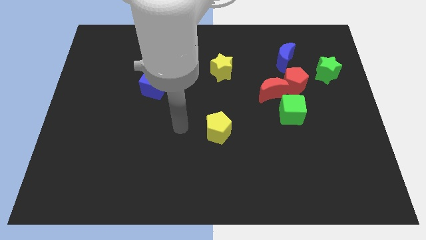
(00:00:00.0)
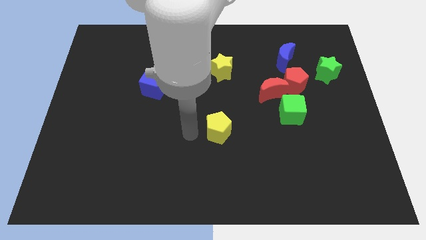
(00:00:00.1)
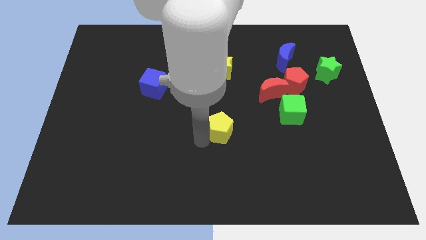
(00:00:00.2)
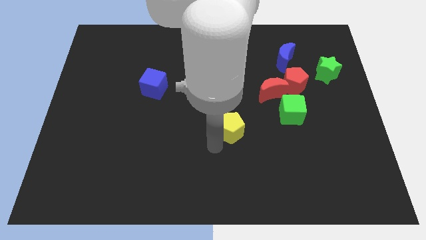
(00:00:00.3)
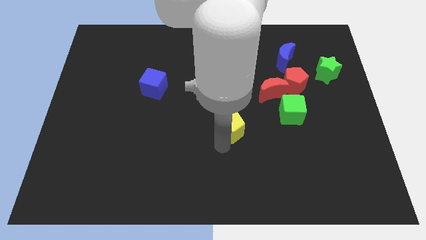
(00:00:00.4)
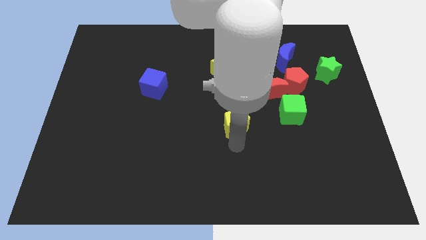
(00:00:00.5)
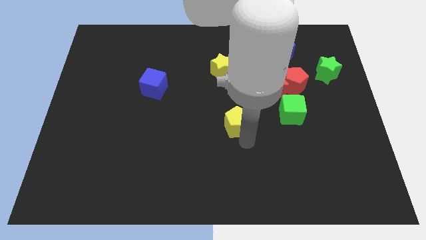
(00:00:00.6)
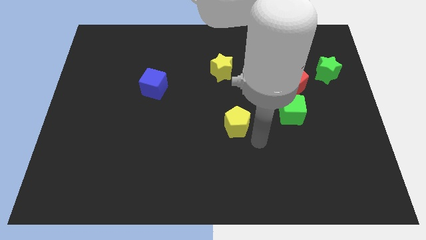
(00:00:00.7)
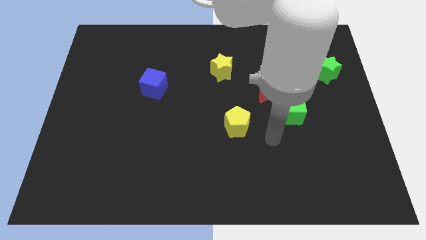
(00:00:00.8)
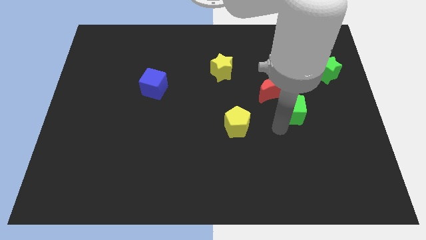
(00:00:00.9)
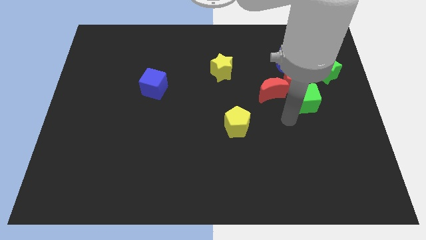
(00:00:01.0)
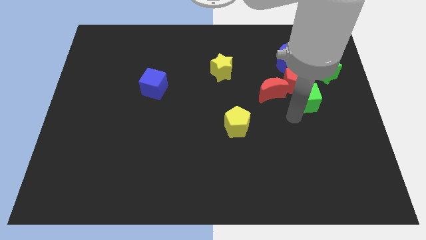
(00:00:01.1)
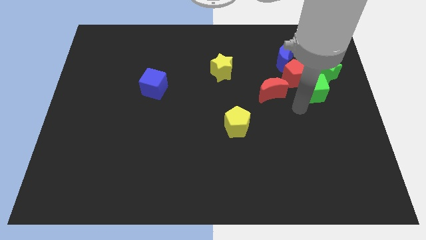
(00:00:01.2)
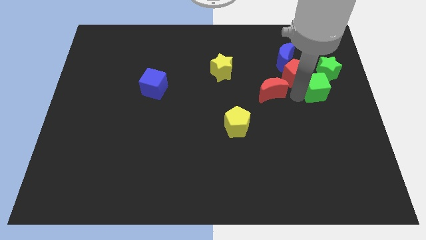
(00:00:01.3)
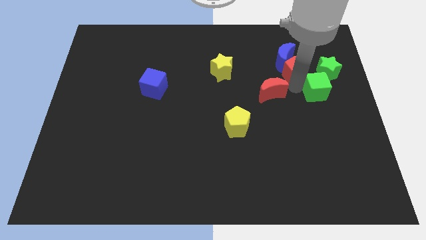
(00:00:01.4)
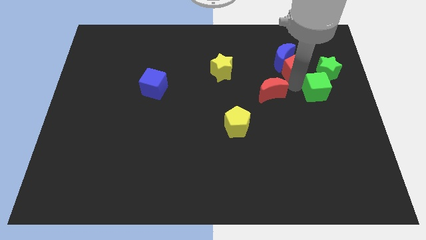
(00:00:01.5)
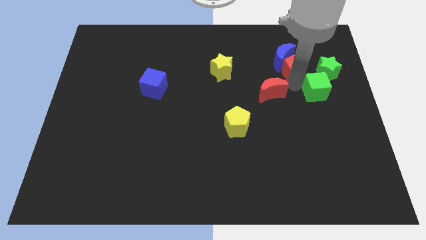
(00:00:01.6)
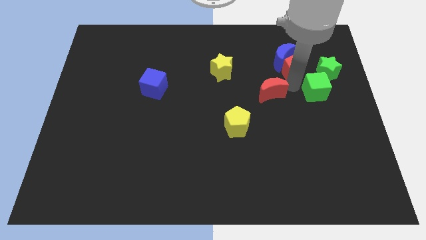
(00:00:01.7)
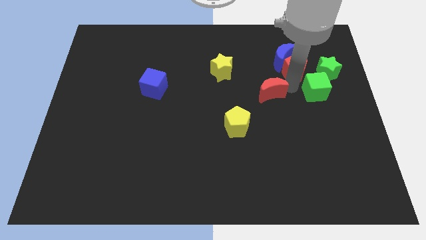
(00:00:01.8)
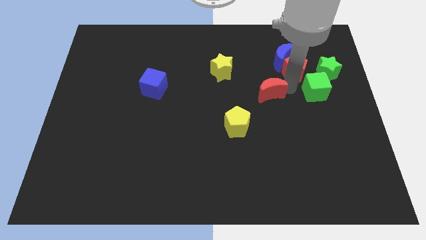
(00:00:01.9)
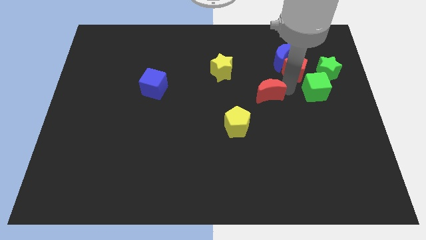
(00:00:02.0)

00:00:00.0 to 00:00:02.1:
pull the red moon apart from the red pentagon and green cube

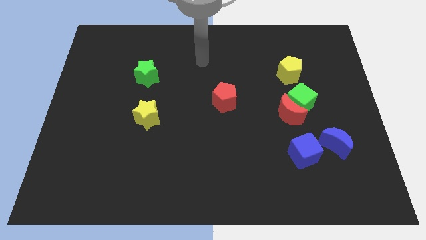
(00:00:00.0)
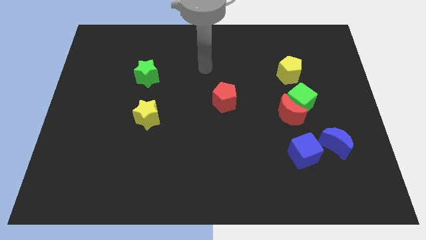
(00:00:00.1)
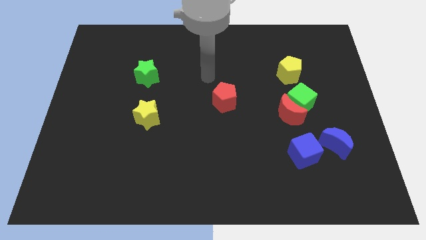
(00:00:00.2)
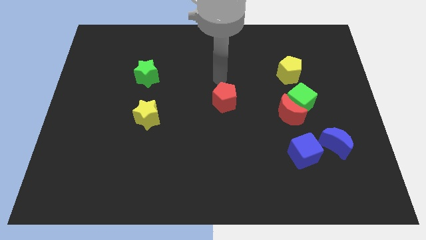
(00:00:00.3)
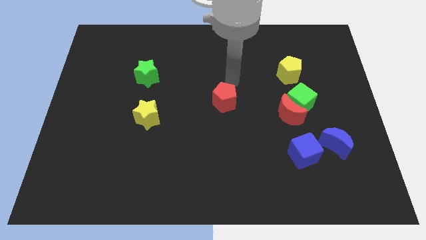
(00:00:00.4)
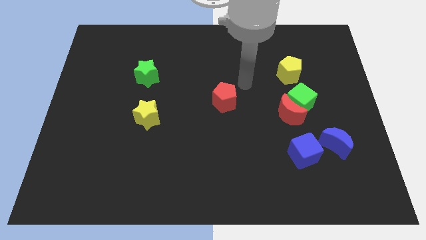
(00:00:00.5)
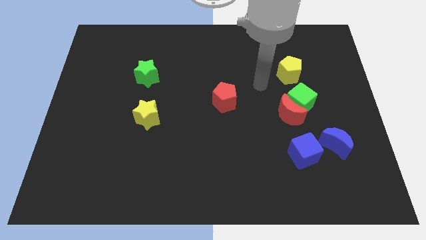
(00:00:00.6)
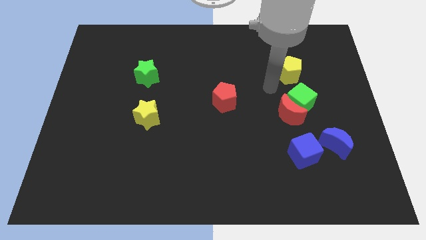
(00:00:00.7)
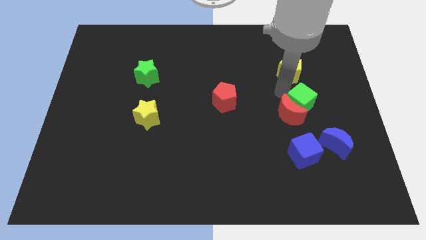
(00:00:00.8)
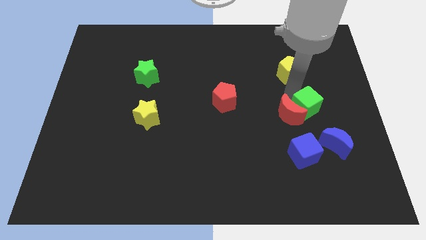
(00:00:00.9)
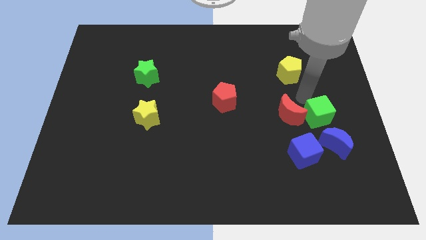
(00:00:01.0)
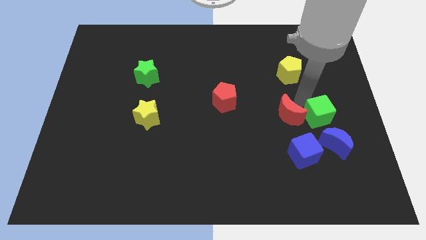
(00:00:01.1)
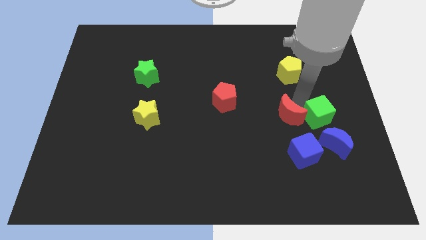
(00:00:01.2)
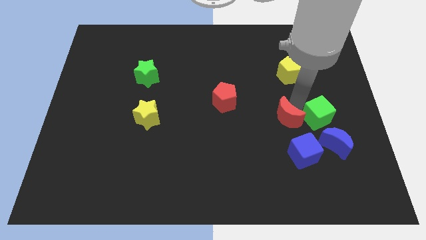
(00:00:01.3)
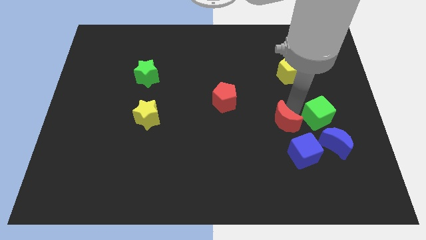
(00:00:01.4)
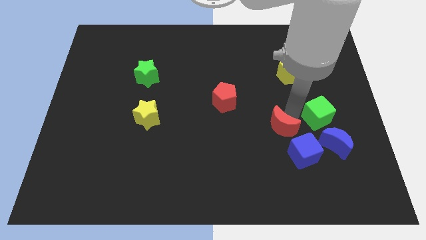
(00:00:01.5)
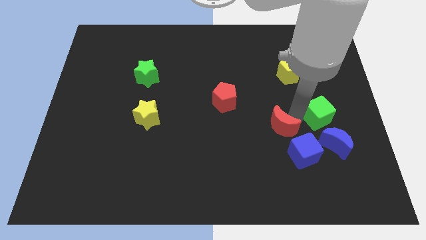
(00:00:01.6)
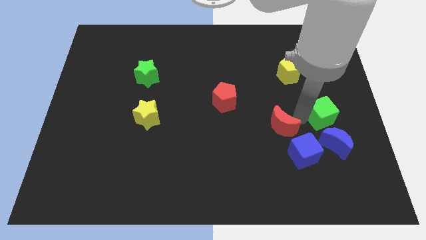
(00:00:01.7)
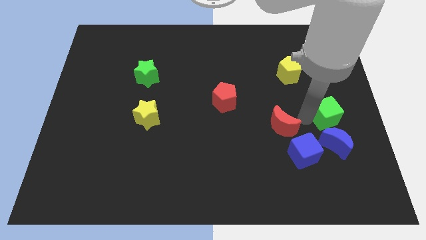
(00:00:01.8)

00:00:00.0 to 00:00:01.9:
move the red moon away from the green cube

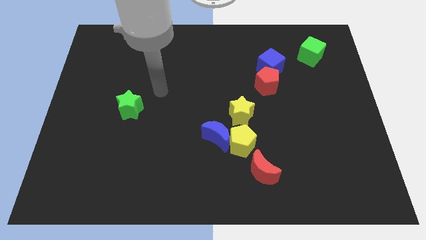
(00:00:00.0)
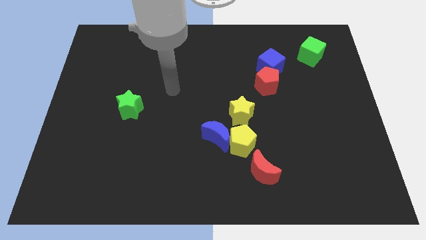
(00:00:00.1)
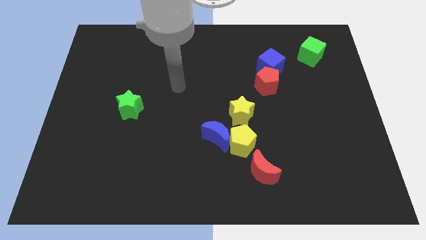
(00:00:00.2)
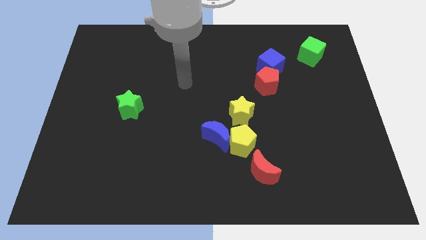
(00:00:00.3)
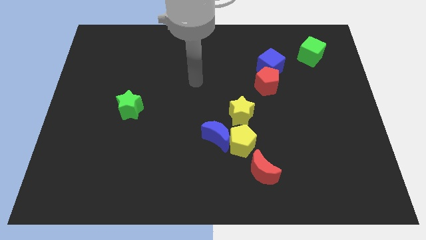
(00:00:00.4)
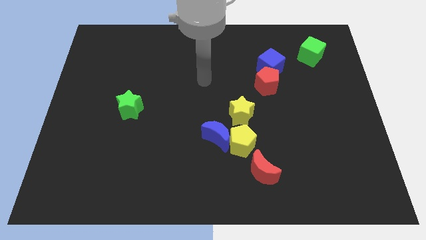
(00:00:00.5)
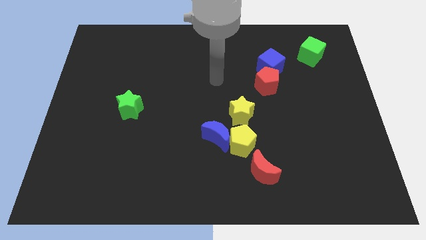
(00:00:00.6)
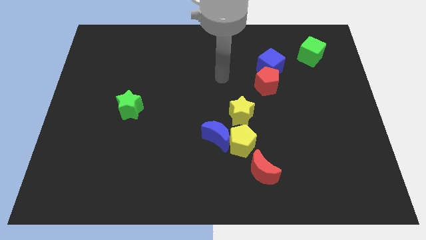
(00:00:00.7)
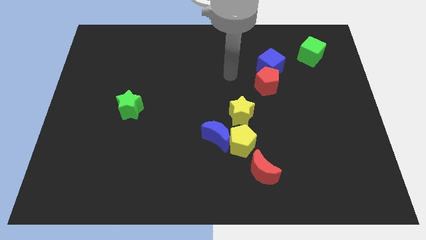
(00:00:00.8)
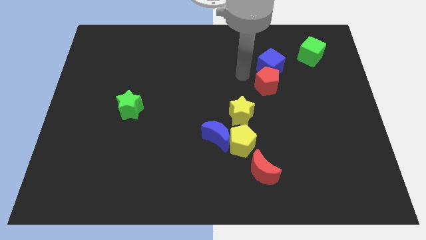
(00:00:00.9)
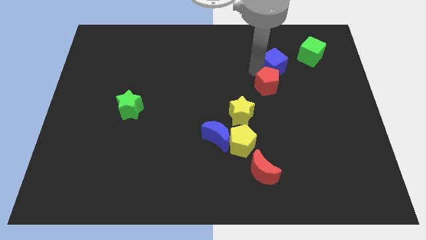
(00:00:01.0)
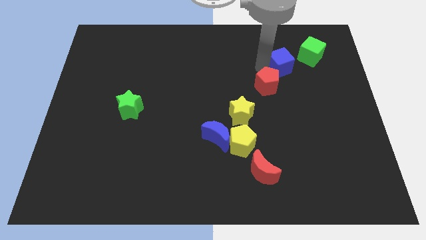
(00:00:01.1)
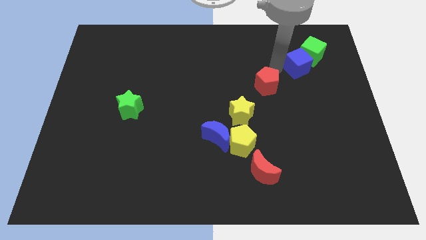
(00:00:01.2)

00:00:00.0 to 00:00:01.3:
move the red pentagon away from the blue cube

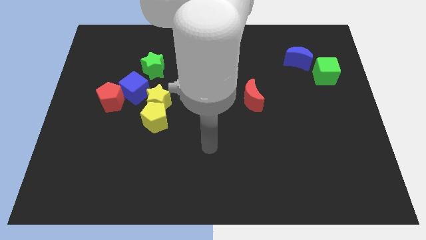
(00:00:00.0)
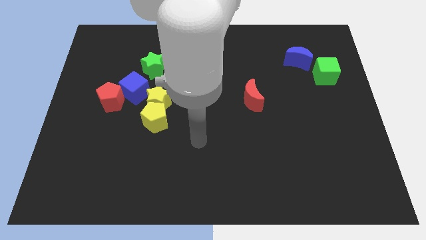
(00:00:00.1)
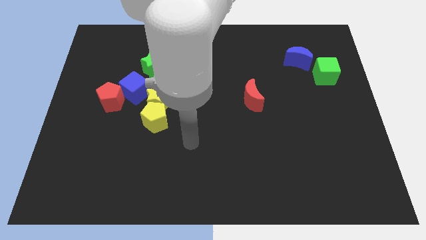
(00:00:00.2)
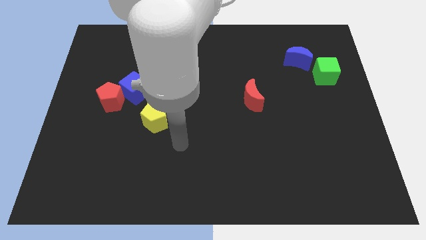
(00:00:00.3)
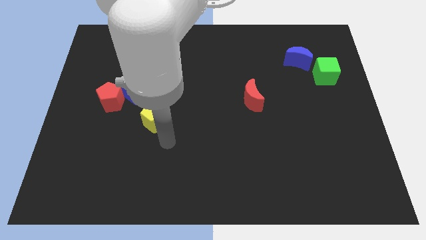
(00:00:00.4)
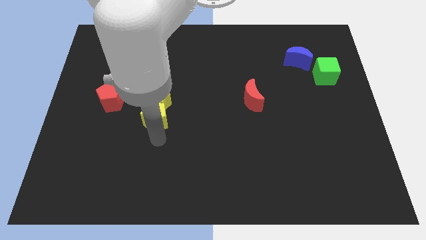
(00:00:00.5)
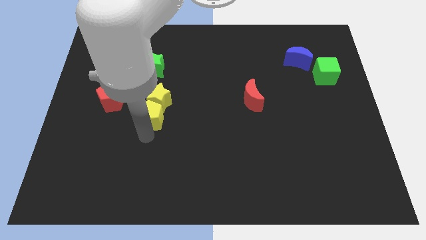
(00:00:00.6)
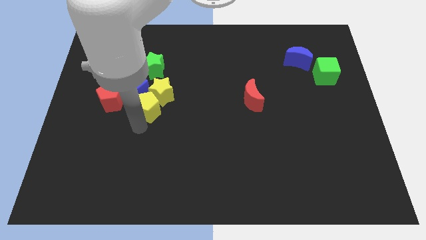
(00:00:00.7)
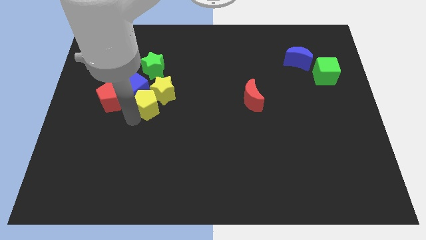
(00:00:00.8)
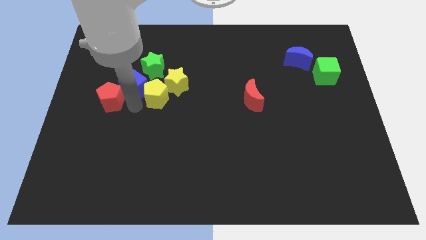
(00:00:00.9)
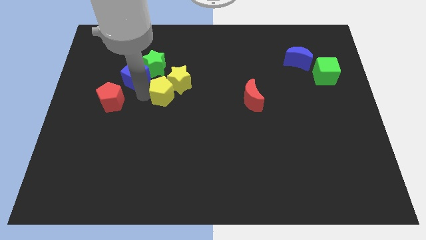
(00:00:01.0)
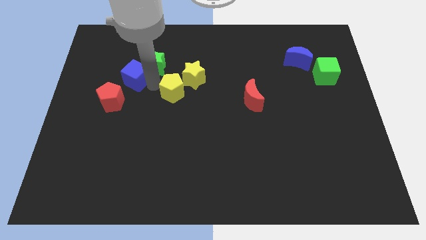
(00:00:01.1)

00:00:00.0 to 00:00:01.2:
move the yellow star away from the yellow pentagon and blue cube

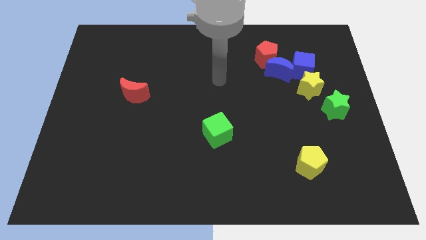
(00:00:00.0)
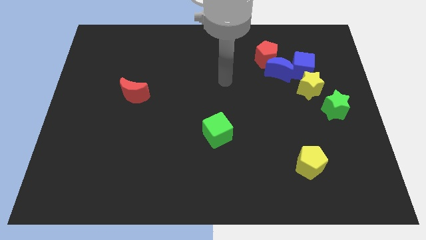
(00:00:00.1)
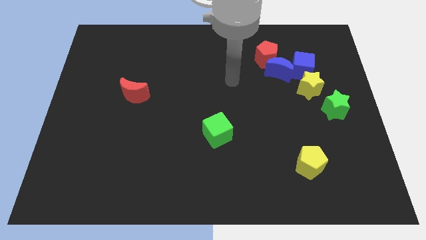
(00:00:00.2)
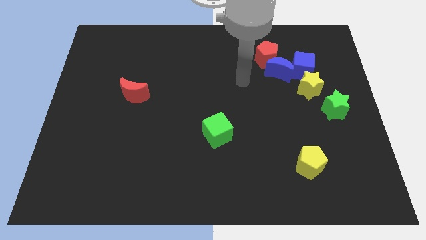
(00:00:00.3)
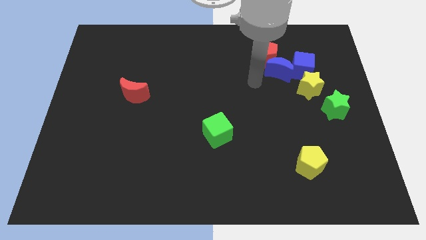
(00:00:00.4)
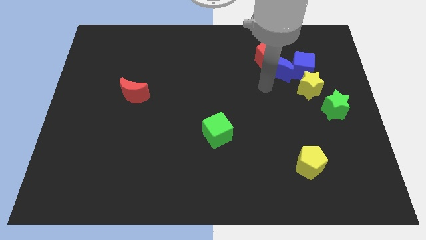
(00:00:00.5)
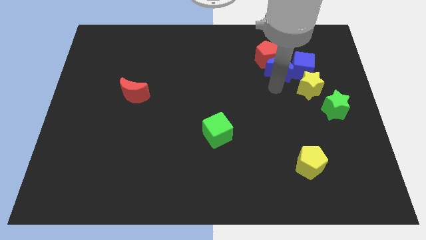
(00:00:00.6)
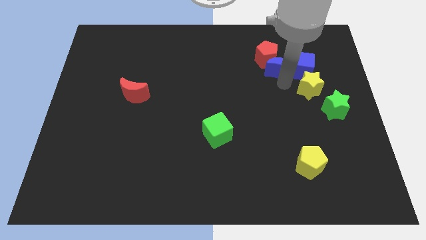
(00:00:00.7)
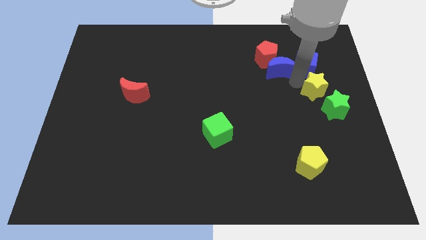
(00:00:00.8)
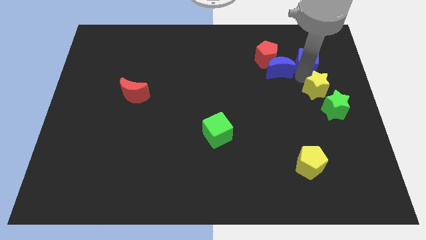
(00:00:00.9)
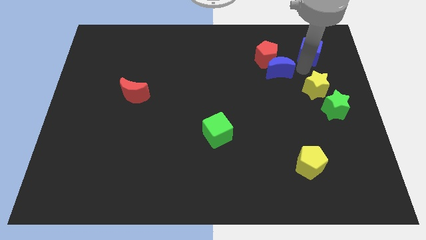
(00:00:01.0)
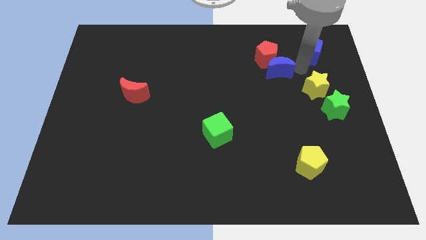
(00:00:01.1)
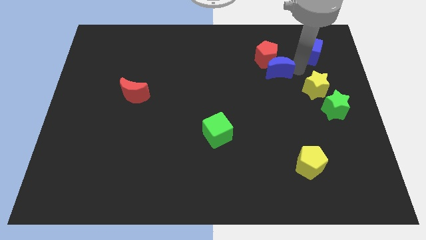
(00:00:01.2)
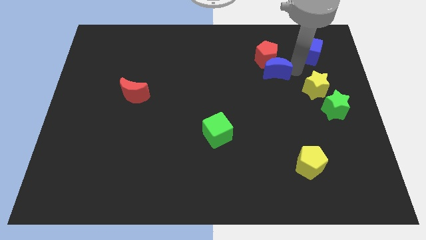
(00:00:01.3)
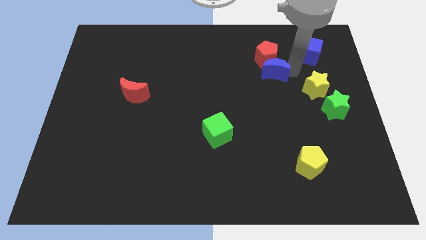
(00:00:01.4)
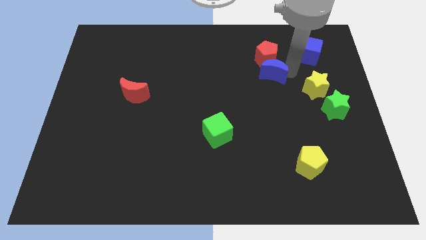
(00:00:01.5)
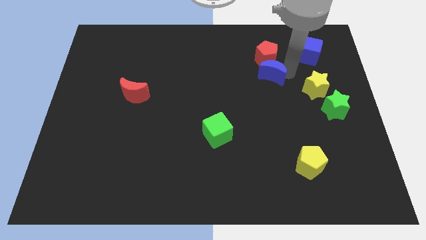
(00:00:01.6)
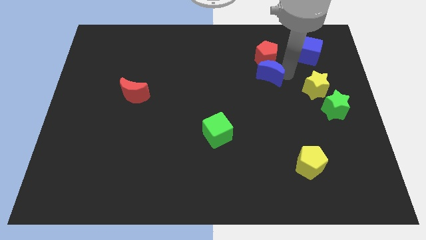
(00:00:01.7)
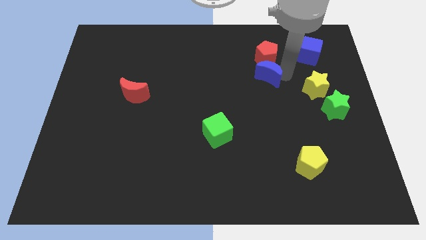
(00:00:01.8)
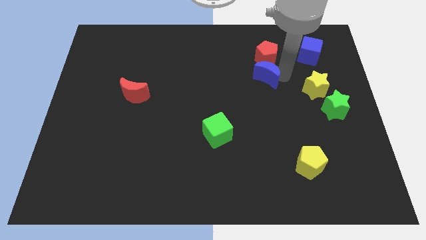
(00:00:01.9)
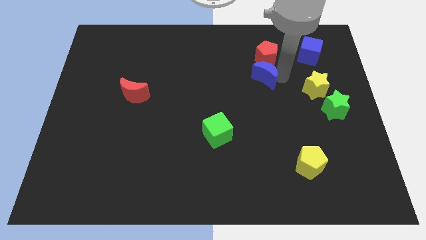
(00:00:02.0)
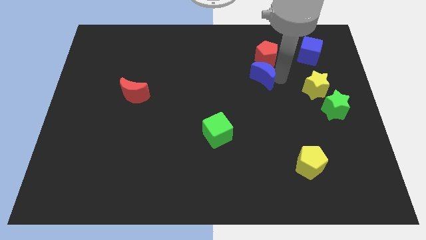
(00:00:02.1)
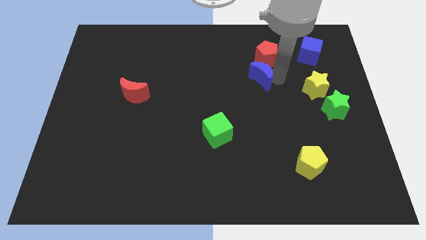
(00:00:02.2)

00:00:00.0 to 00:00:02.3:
move the blue moon away from the red pentagon, blue cube, and yellow star

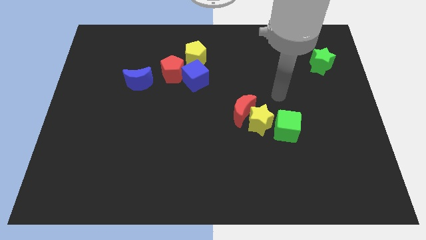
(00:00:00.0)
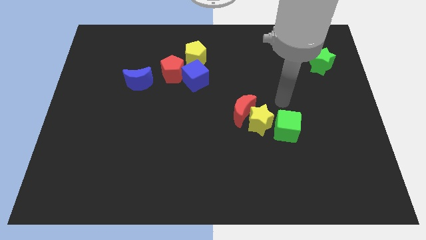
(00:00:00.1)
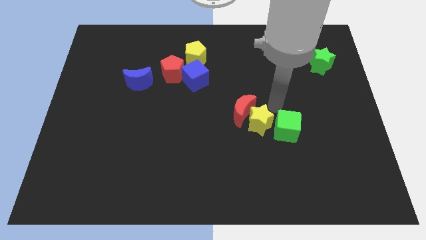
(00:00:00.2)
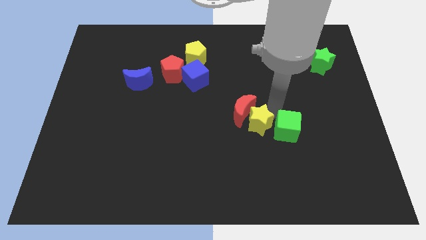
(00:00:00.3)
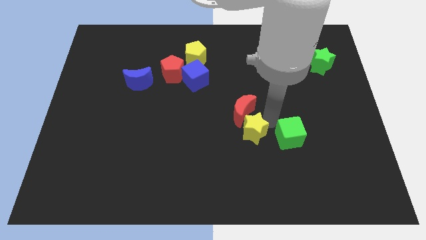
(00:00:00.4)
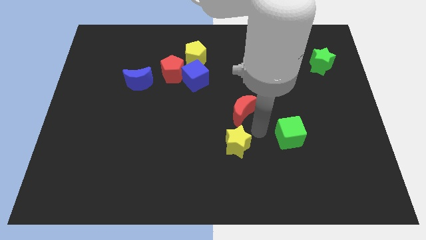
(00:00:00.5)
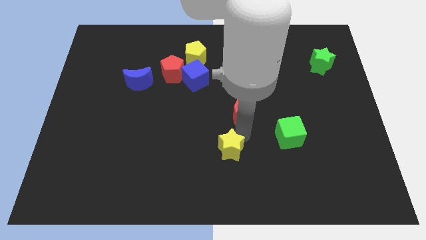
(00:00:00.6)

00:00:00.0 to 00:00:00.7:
pull the red moon apart from the yellow star
